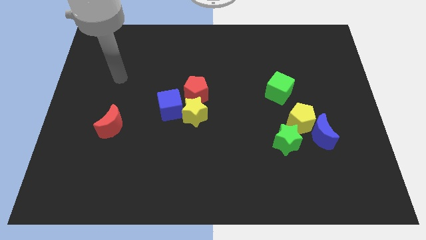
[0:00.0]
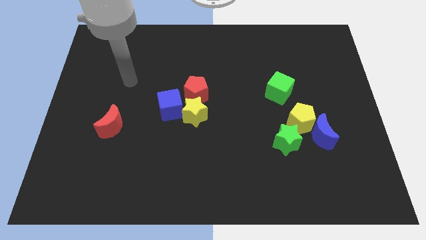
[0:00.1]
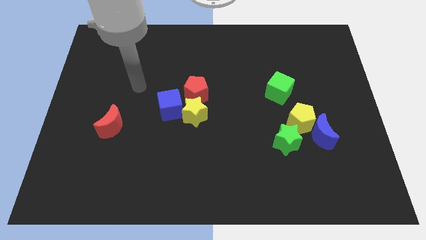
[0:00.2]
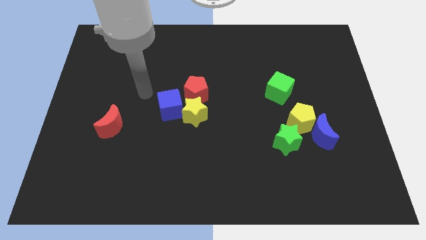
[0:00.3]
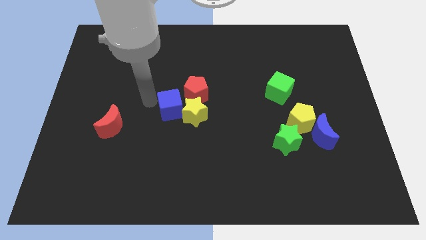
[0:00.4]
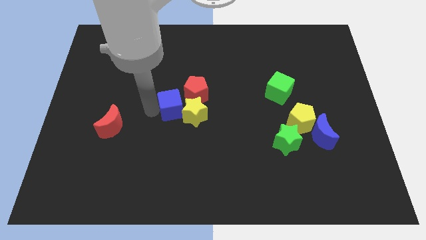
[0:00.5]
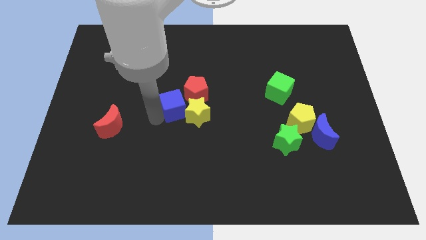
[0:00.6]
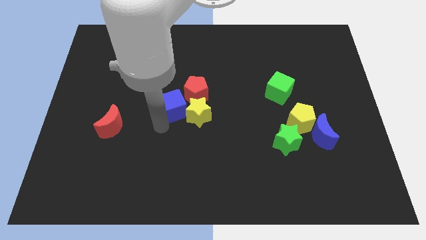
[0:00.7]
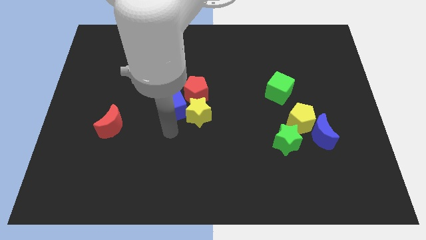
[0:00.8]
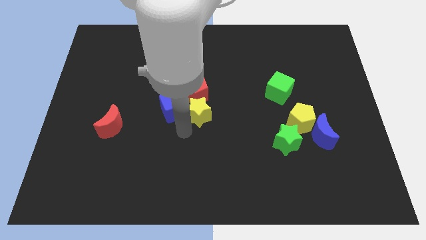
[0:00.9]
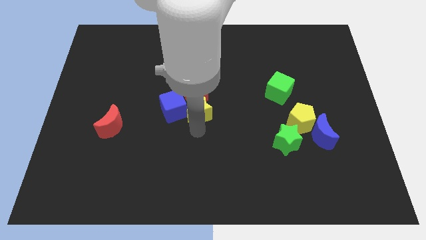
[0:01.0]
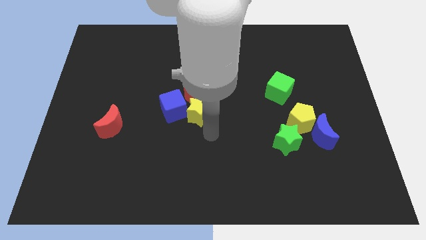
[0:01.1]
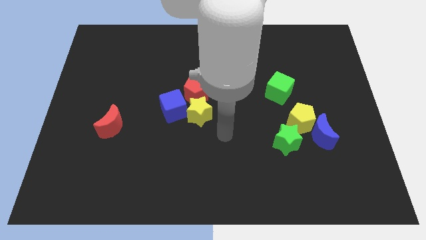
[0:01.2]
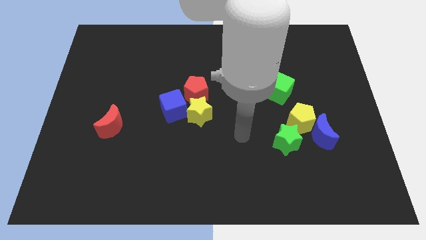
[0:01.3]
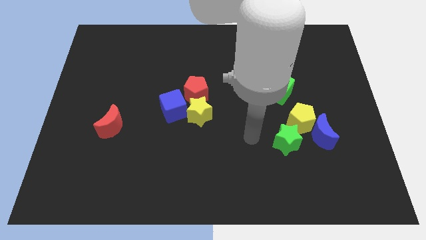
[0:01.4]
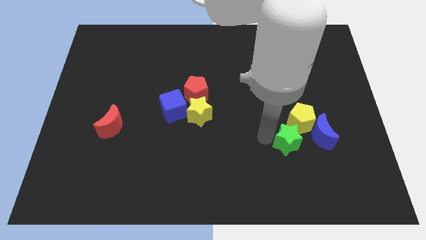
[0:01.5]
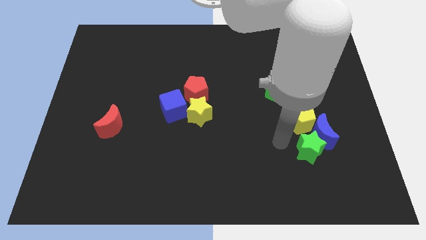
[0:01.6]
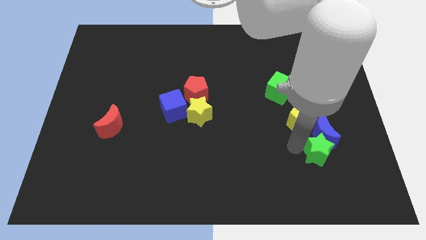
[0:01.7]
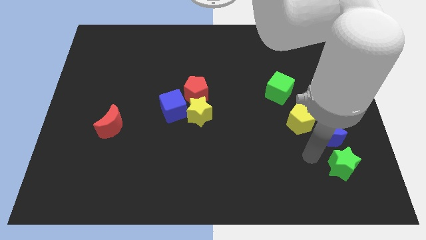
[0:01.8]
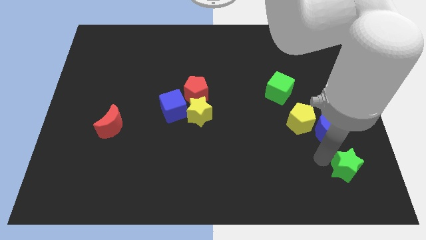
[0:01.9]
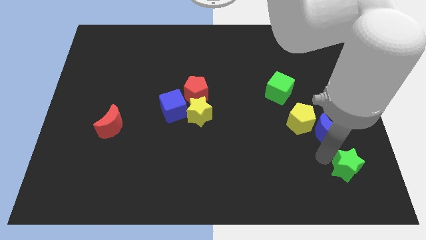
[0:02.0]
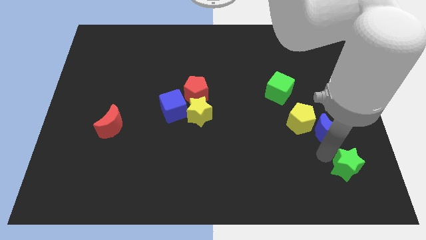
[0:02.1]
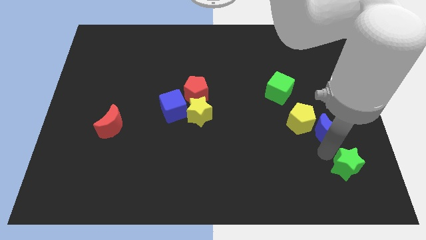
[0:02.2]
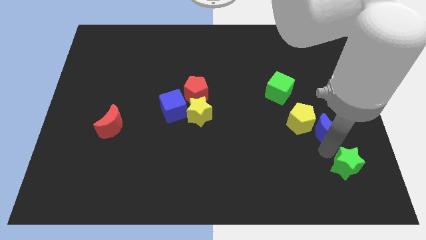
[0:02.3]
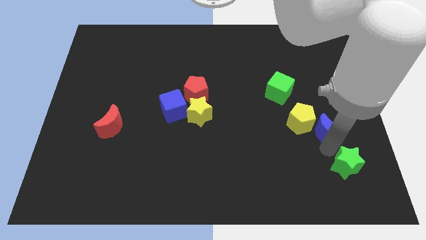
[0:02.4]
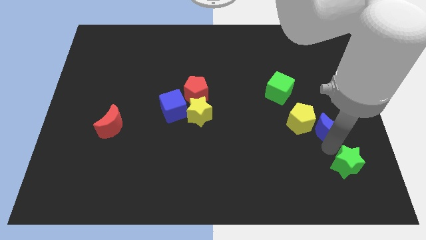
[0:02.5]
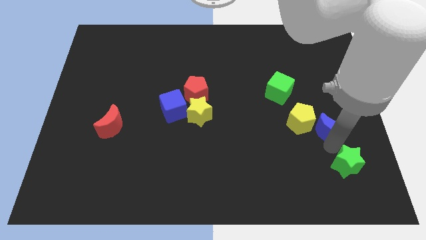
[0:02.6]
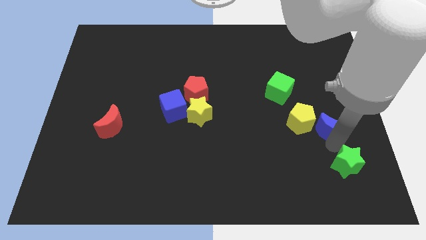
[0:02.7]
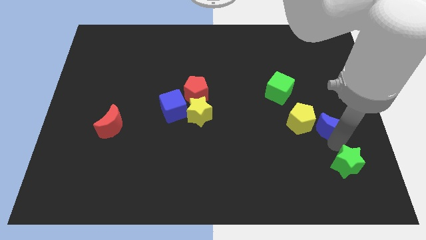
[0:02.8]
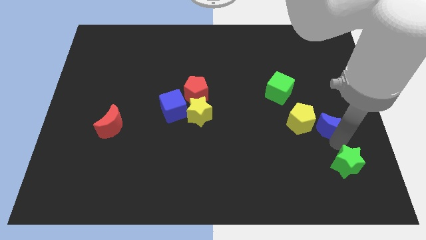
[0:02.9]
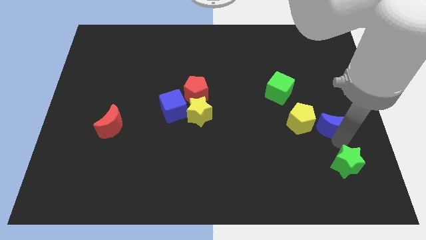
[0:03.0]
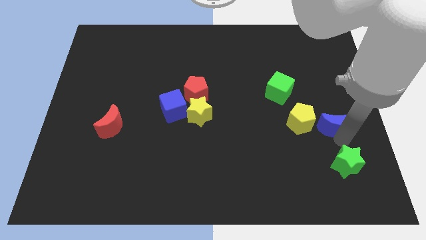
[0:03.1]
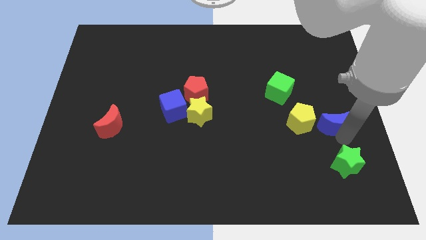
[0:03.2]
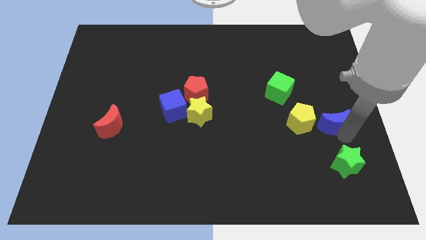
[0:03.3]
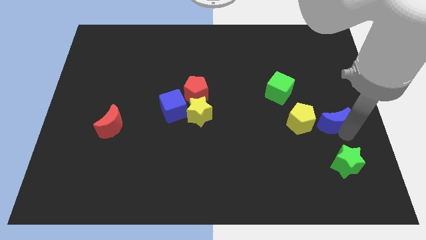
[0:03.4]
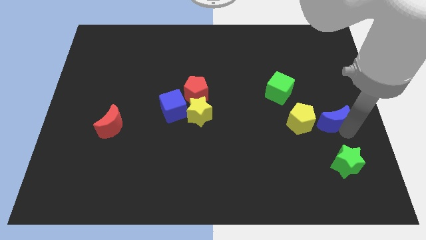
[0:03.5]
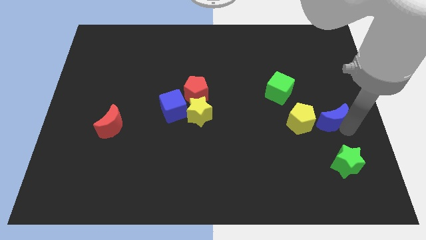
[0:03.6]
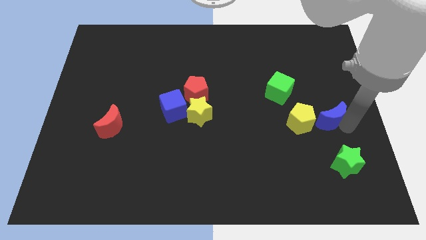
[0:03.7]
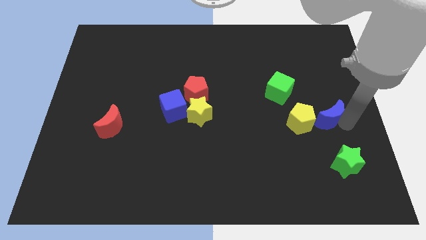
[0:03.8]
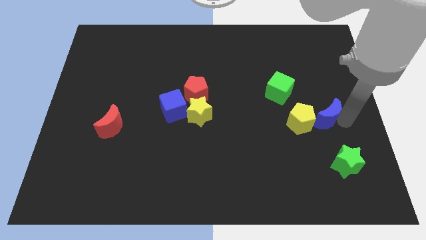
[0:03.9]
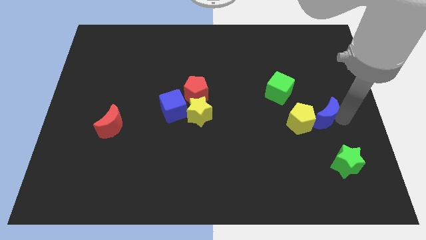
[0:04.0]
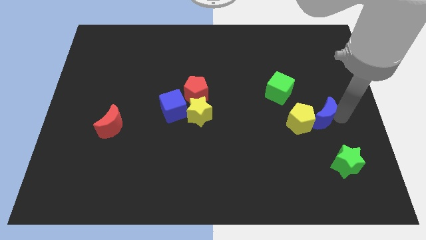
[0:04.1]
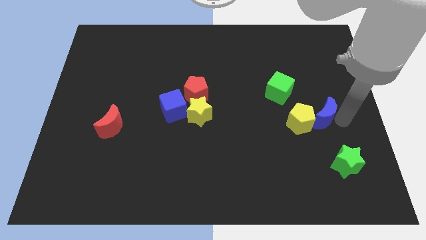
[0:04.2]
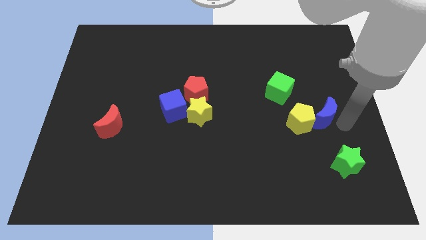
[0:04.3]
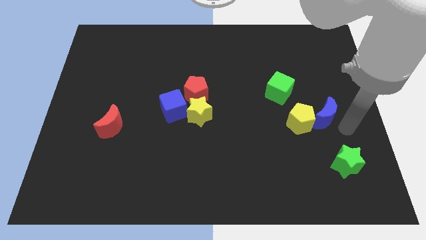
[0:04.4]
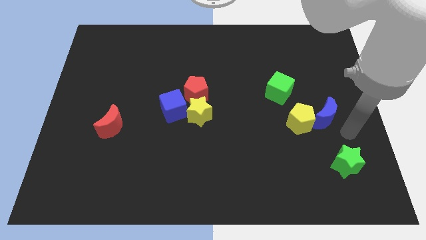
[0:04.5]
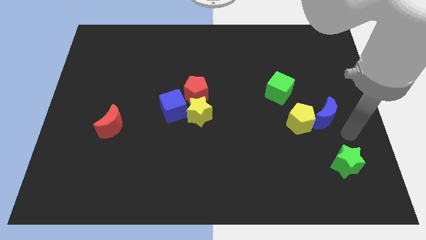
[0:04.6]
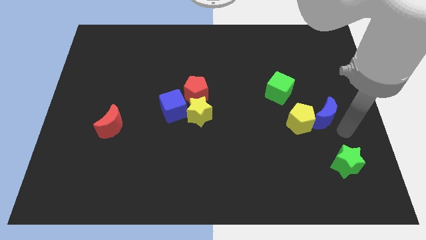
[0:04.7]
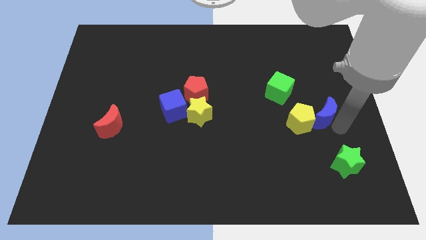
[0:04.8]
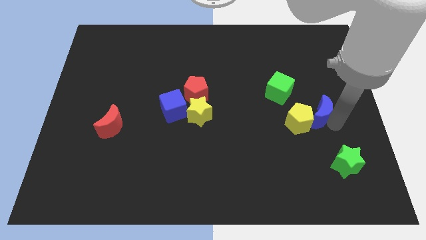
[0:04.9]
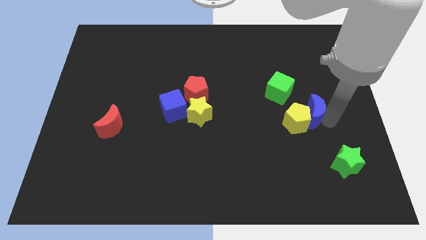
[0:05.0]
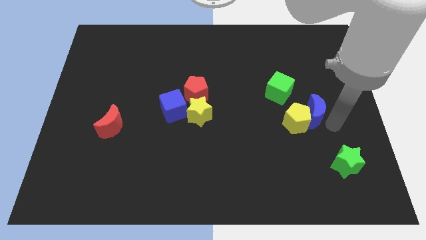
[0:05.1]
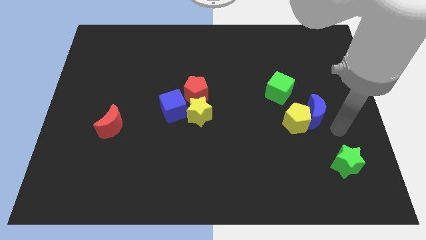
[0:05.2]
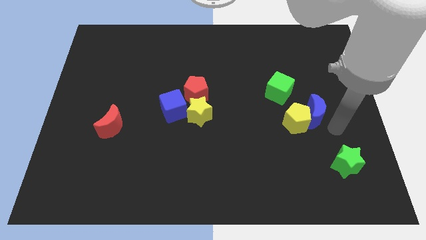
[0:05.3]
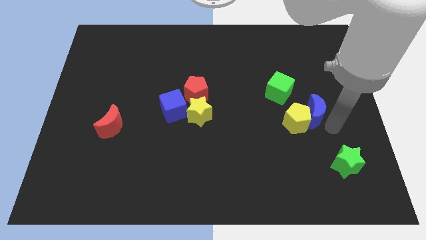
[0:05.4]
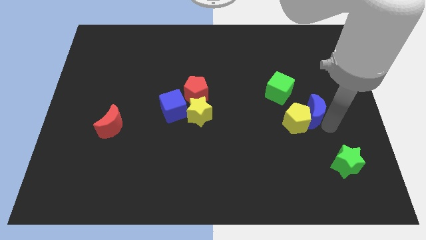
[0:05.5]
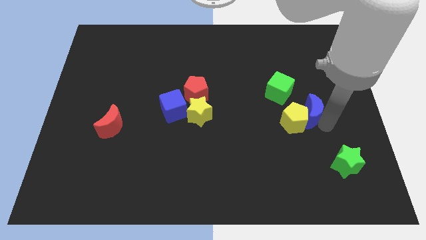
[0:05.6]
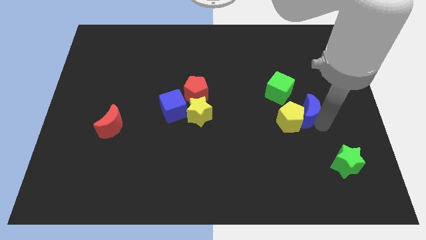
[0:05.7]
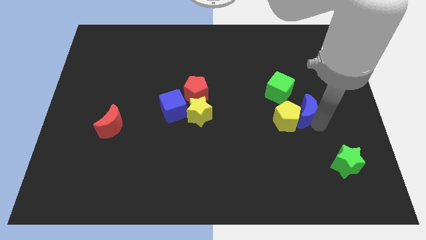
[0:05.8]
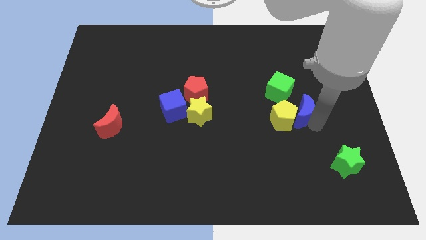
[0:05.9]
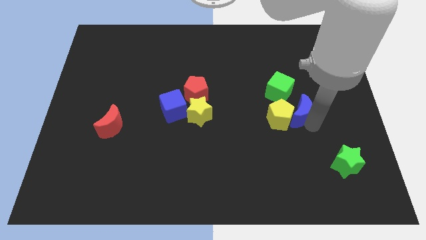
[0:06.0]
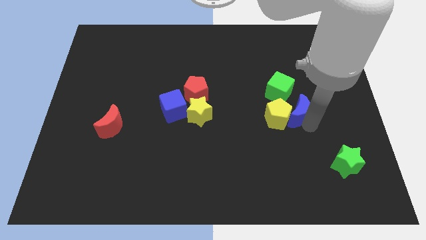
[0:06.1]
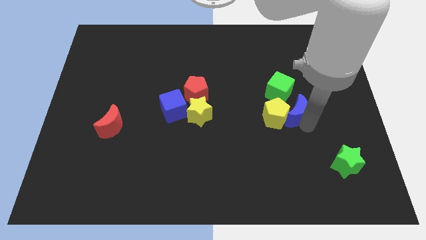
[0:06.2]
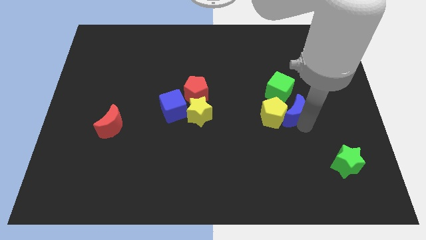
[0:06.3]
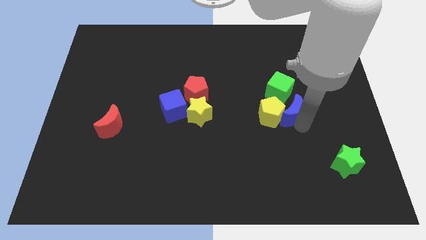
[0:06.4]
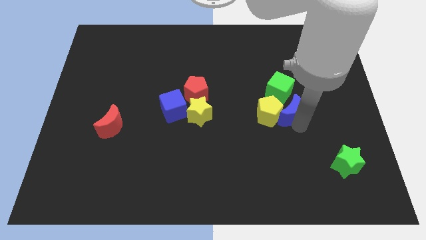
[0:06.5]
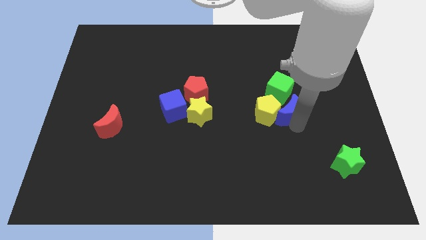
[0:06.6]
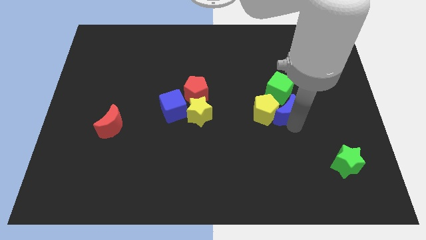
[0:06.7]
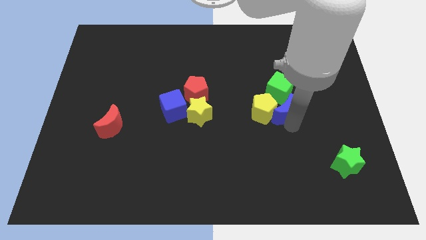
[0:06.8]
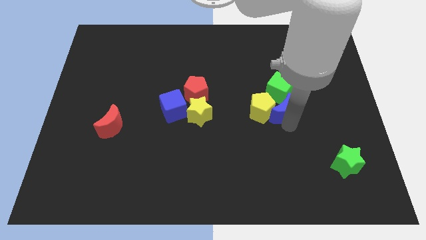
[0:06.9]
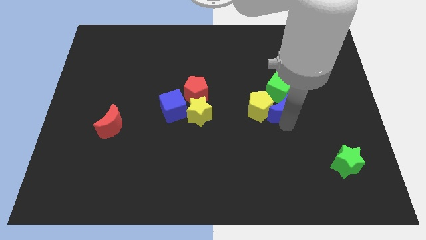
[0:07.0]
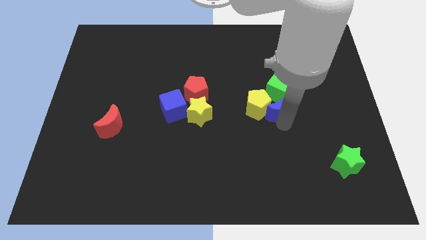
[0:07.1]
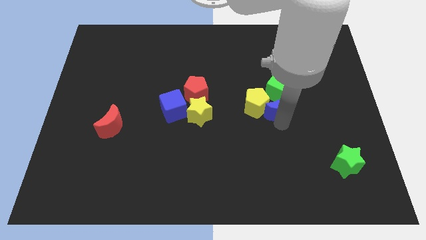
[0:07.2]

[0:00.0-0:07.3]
move the blue moon to the green cube
